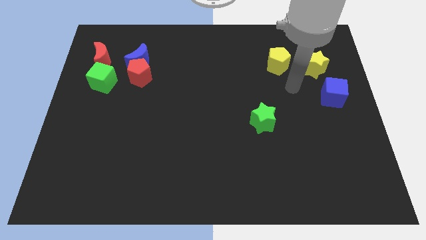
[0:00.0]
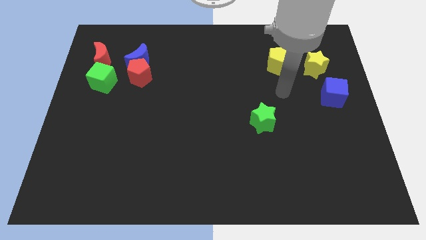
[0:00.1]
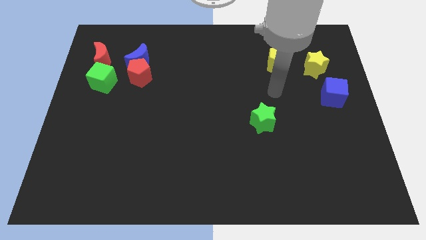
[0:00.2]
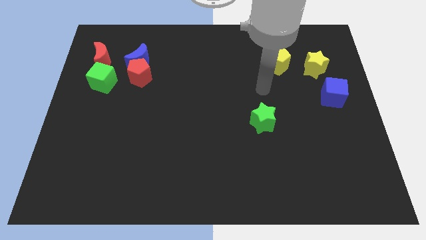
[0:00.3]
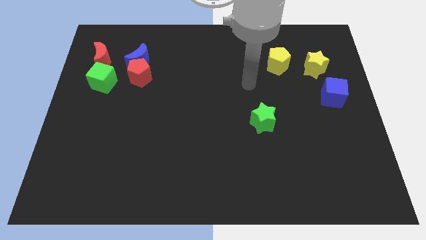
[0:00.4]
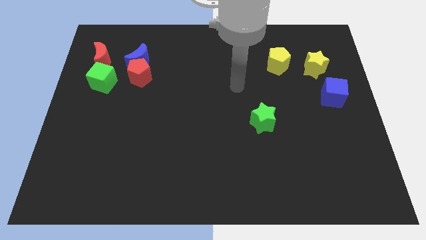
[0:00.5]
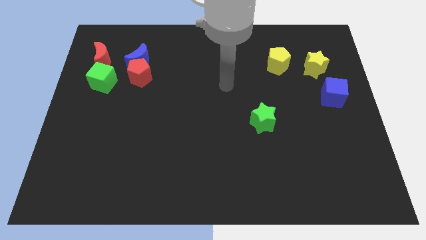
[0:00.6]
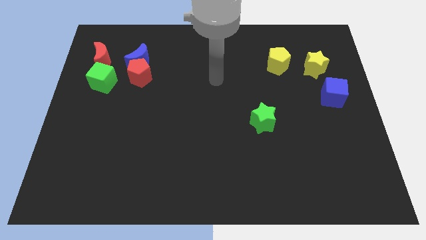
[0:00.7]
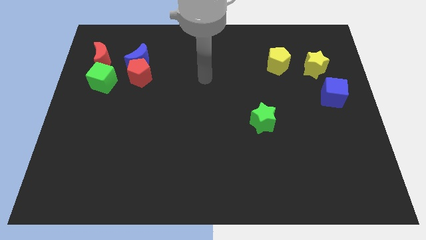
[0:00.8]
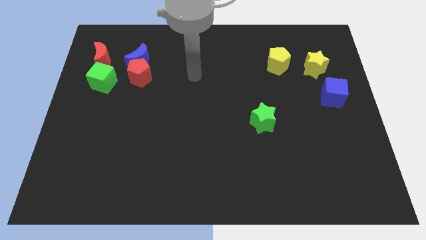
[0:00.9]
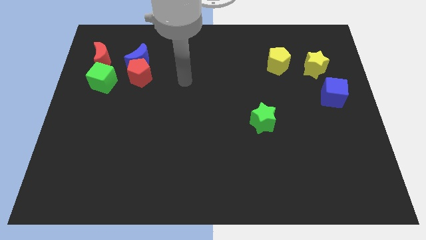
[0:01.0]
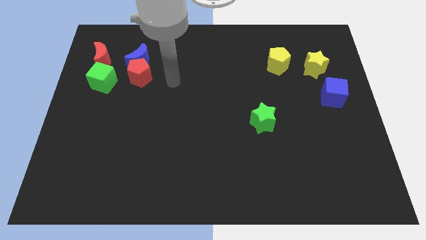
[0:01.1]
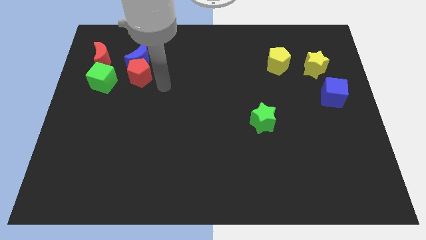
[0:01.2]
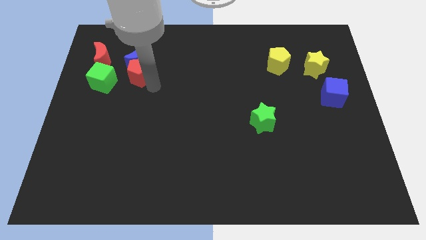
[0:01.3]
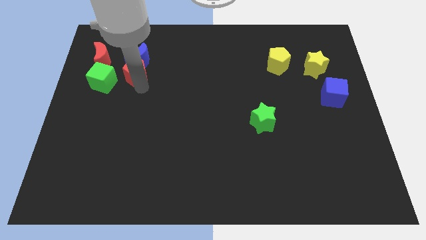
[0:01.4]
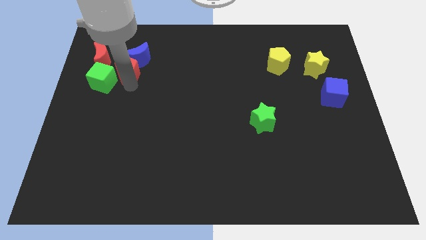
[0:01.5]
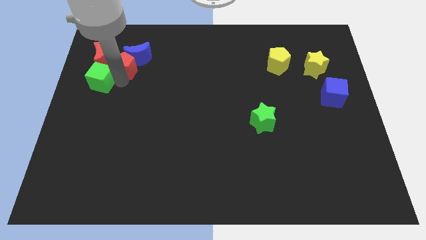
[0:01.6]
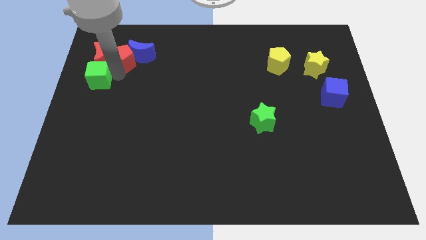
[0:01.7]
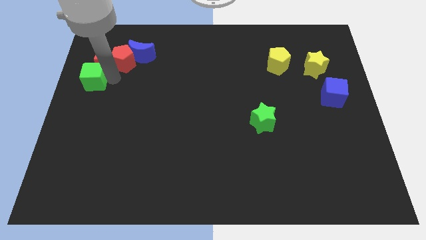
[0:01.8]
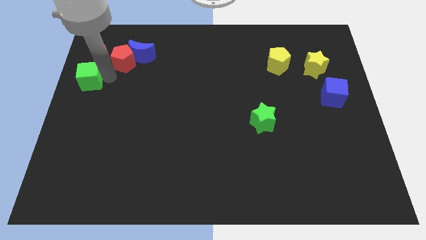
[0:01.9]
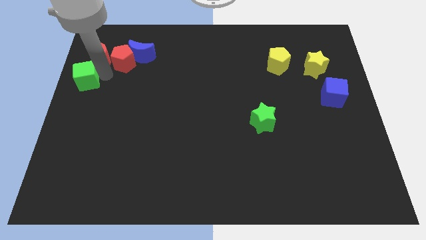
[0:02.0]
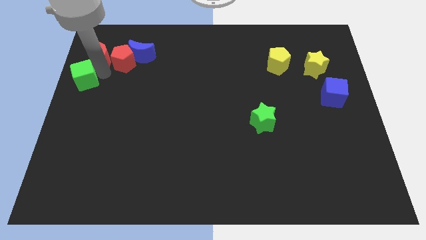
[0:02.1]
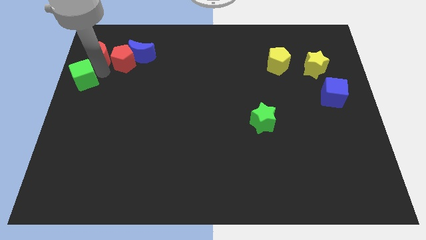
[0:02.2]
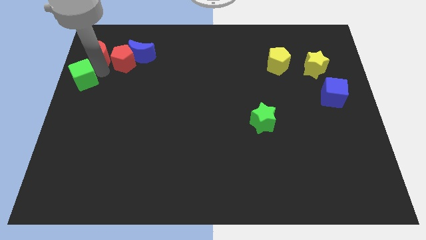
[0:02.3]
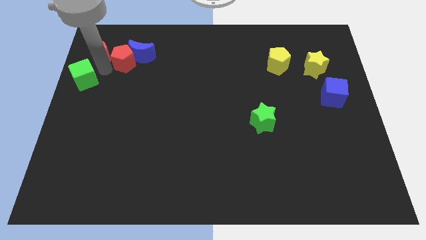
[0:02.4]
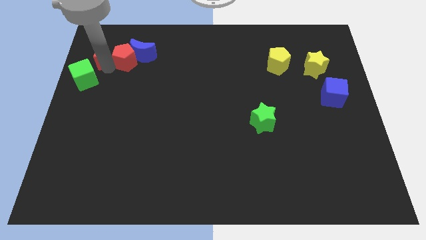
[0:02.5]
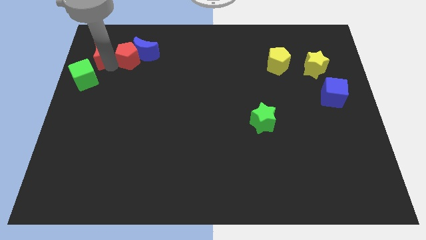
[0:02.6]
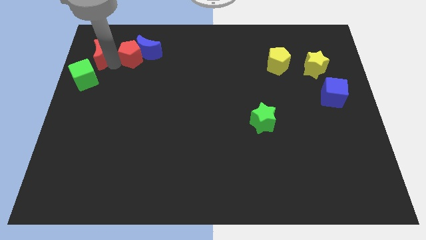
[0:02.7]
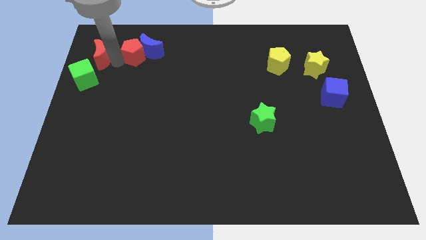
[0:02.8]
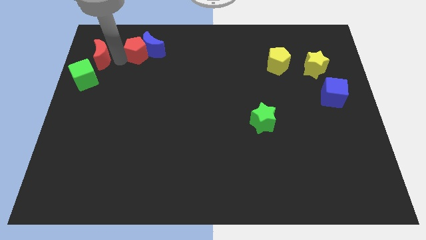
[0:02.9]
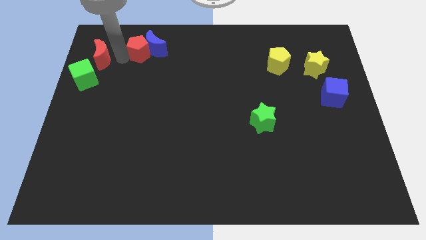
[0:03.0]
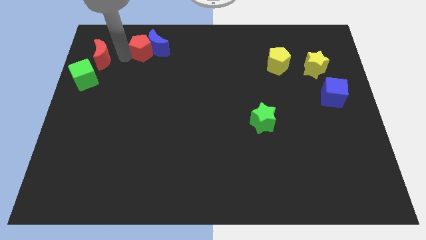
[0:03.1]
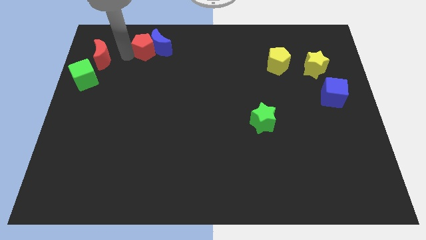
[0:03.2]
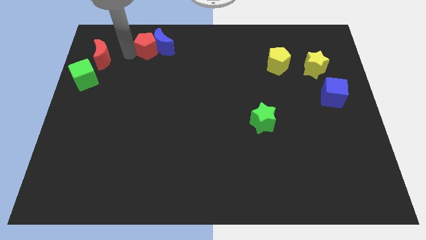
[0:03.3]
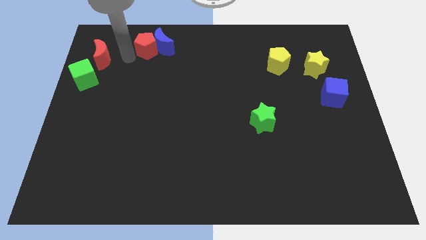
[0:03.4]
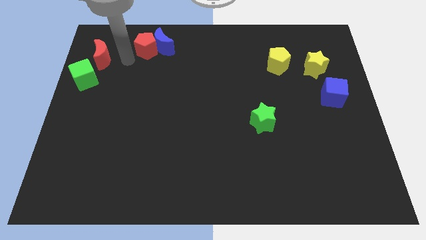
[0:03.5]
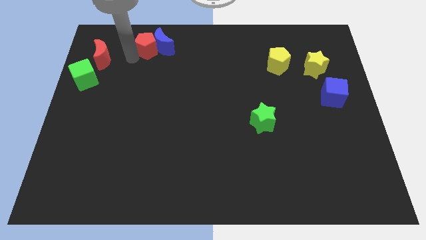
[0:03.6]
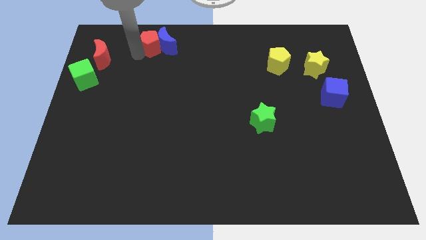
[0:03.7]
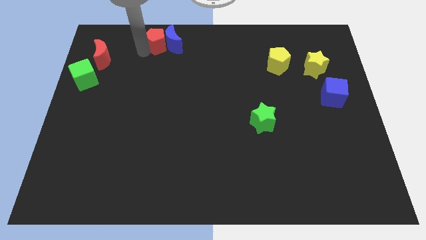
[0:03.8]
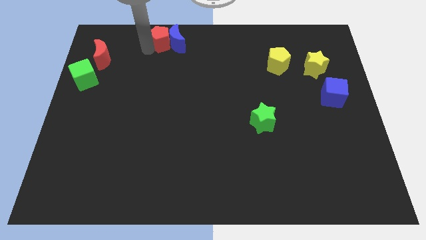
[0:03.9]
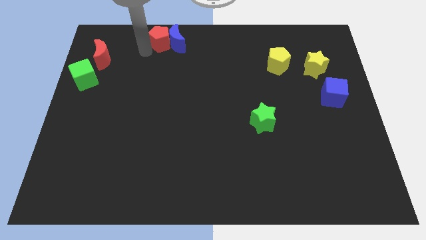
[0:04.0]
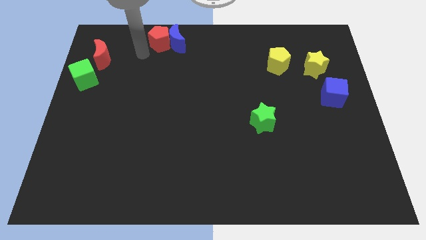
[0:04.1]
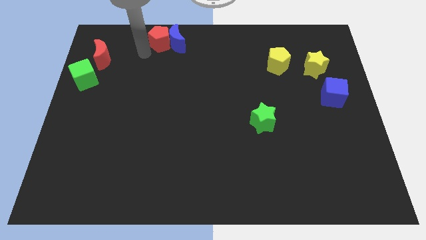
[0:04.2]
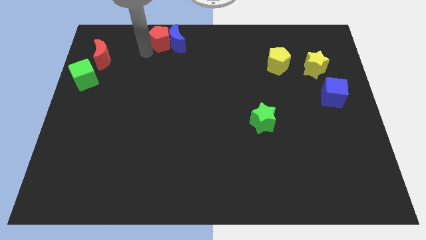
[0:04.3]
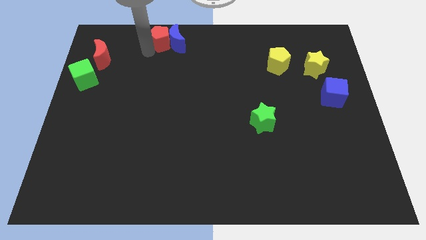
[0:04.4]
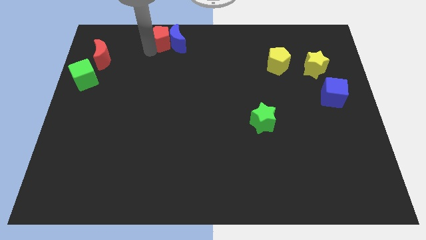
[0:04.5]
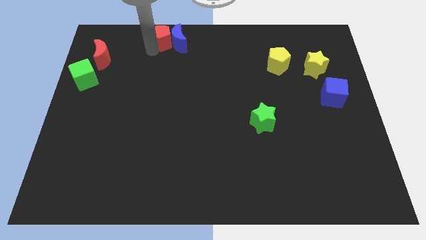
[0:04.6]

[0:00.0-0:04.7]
move the red pentagon away from the blue moon and green cube

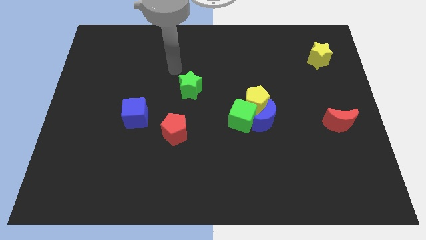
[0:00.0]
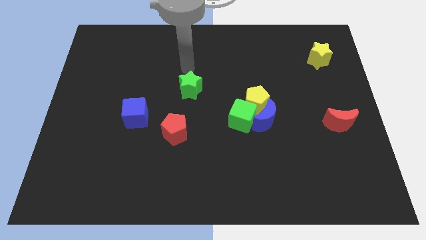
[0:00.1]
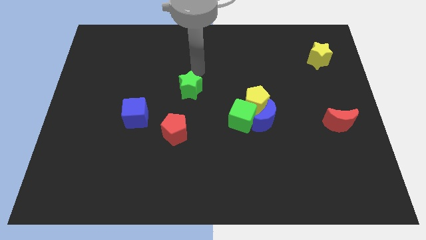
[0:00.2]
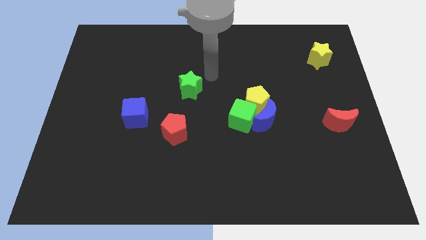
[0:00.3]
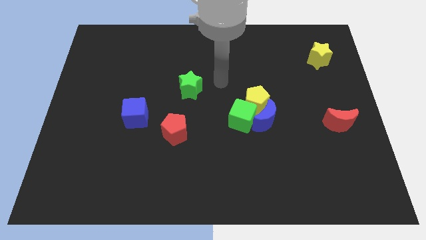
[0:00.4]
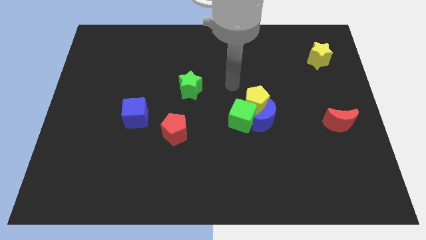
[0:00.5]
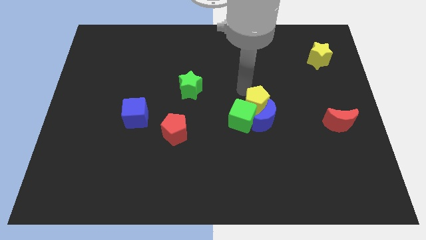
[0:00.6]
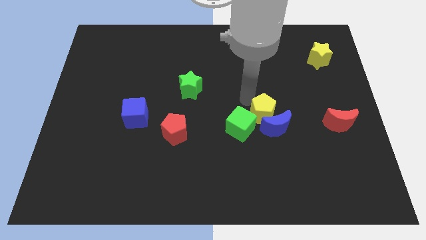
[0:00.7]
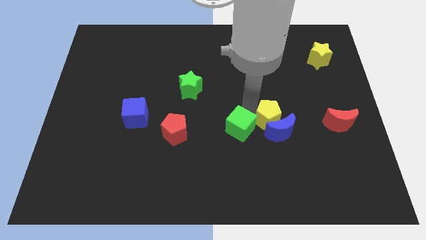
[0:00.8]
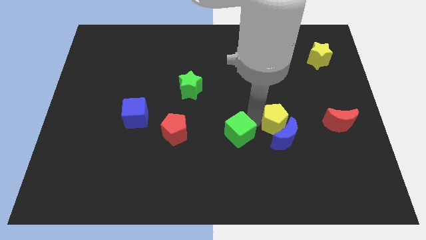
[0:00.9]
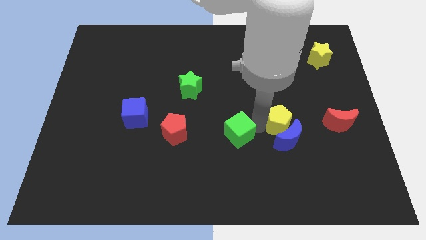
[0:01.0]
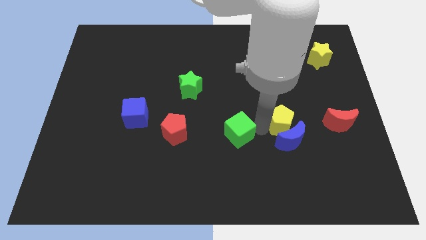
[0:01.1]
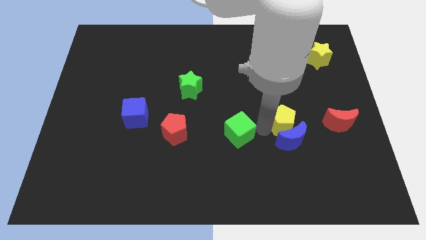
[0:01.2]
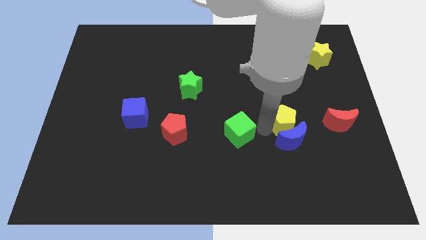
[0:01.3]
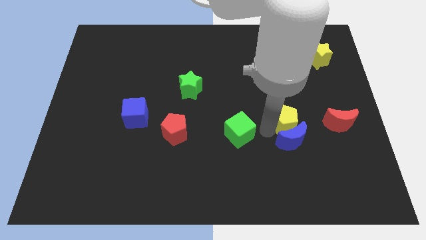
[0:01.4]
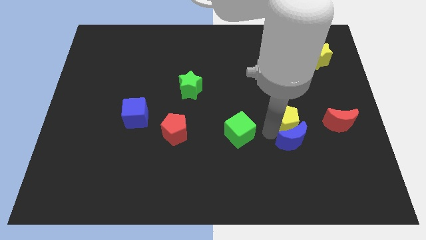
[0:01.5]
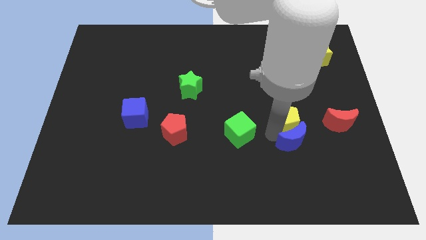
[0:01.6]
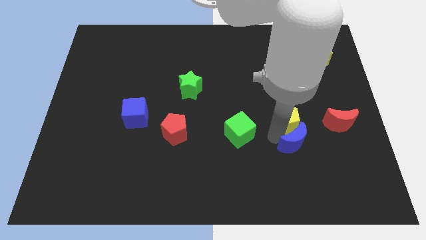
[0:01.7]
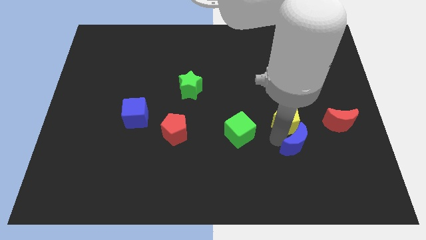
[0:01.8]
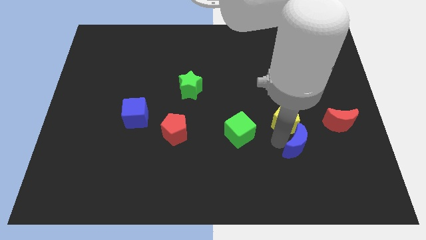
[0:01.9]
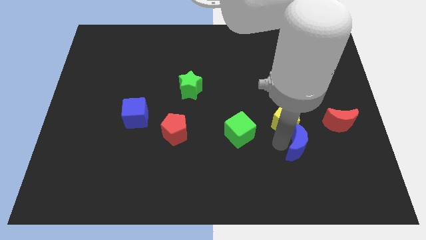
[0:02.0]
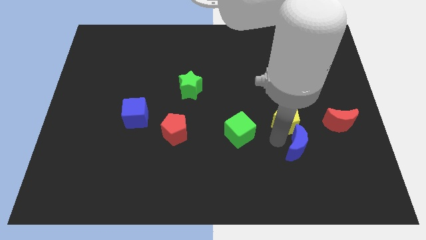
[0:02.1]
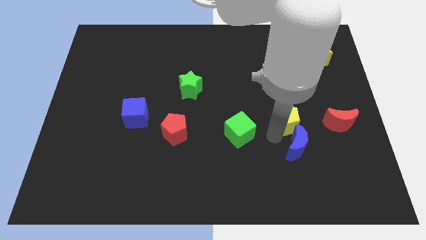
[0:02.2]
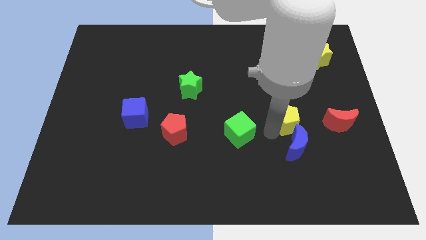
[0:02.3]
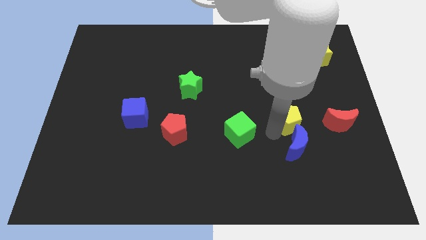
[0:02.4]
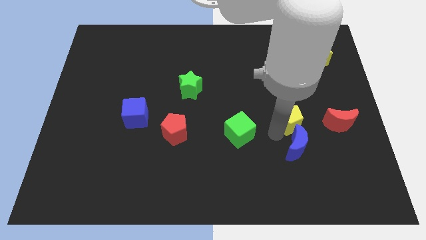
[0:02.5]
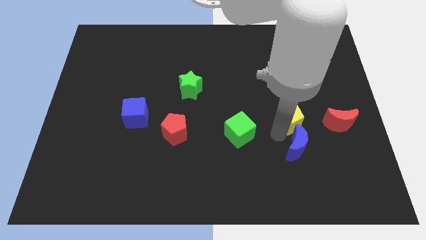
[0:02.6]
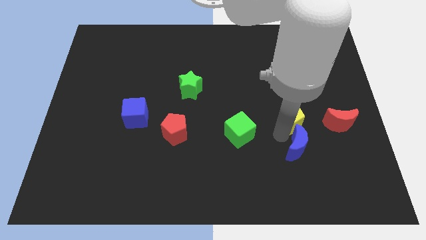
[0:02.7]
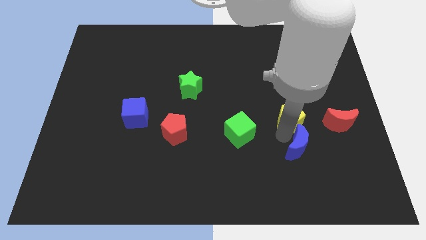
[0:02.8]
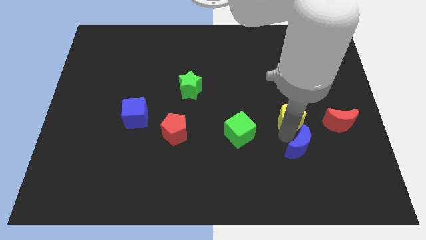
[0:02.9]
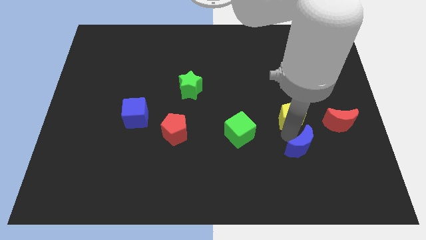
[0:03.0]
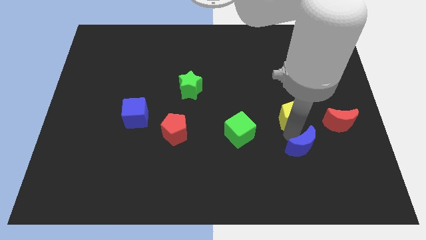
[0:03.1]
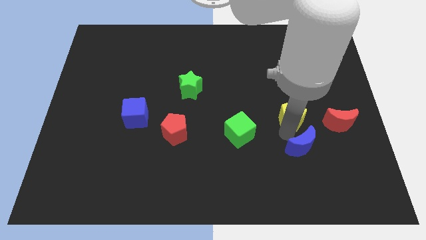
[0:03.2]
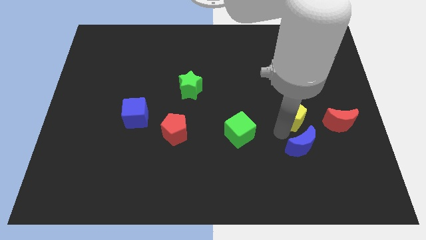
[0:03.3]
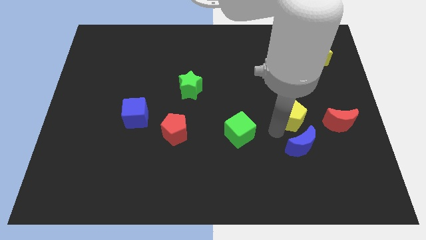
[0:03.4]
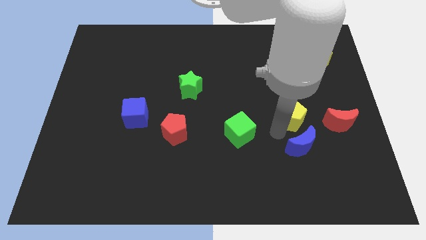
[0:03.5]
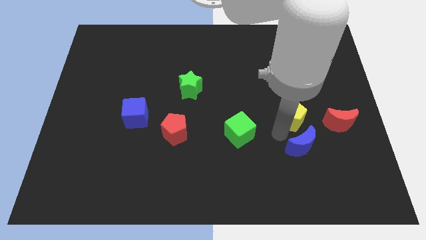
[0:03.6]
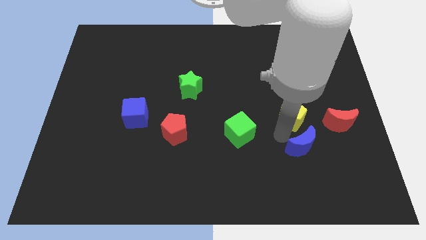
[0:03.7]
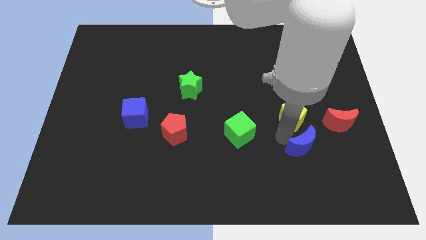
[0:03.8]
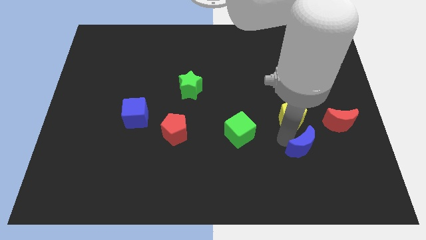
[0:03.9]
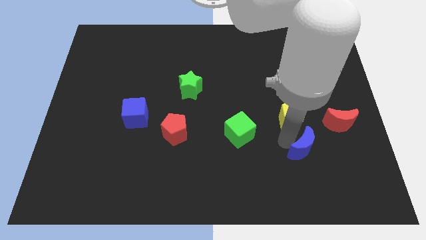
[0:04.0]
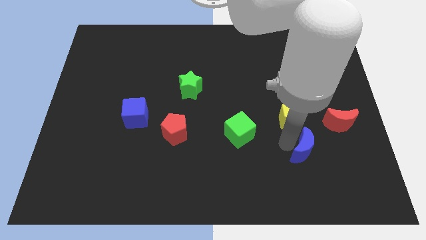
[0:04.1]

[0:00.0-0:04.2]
separate the blue moon from the yellow pentagon and green cube

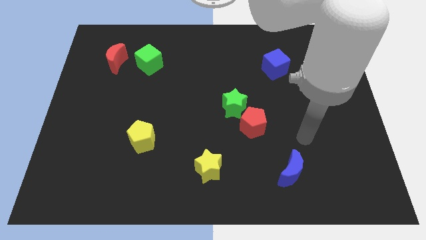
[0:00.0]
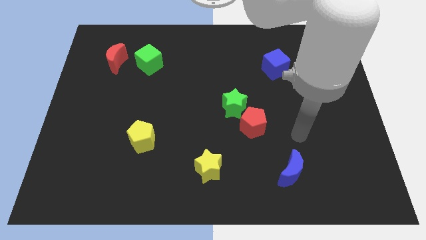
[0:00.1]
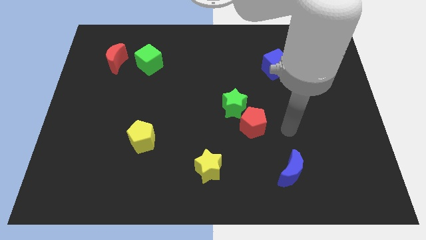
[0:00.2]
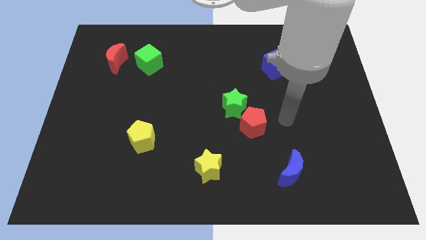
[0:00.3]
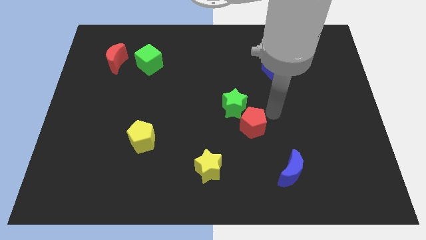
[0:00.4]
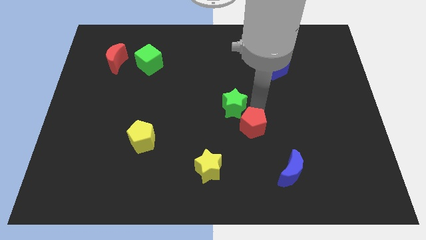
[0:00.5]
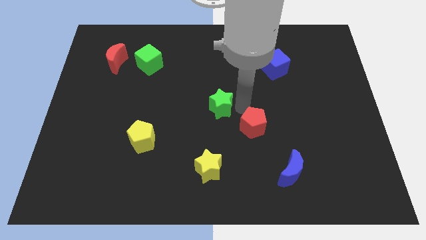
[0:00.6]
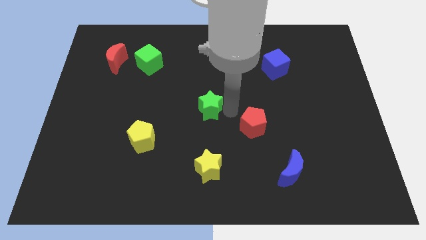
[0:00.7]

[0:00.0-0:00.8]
separate the red pentagon from the green star
